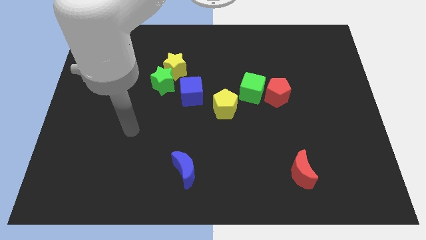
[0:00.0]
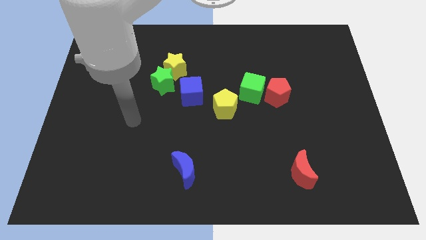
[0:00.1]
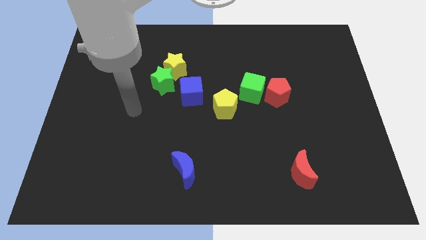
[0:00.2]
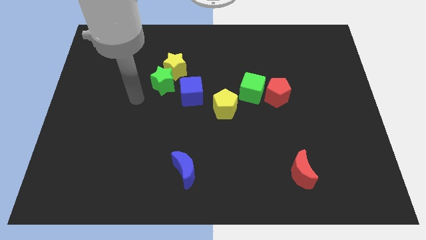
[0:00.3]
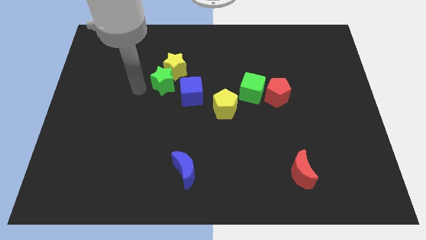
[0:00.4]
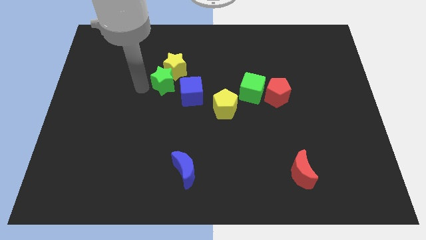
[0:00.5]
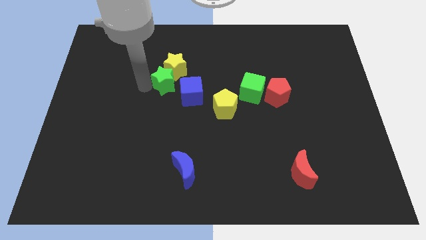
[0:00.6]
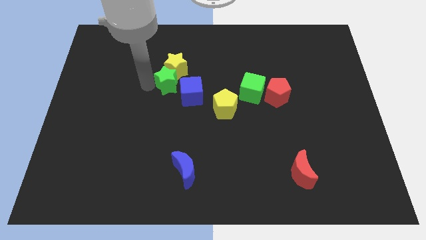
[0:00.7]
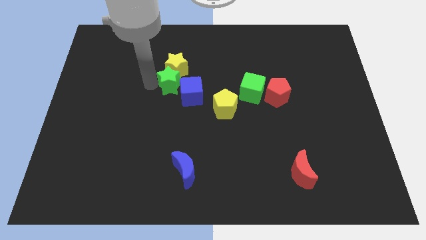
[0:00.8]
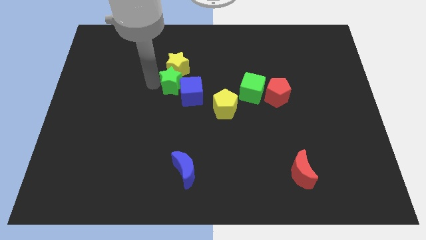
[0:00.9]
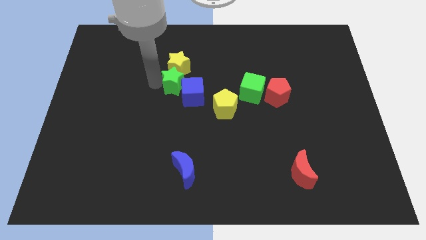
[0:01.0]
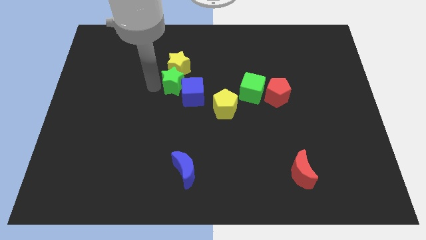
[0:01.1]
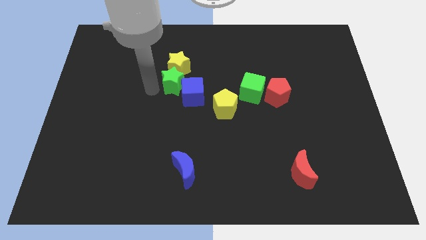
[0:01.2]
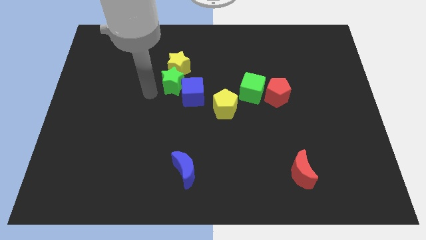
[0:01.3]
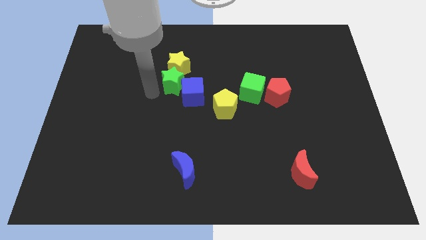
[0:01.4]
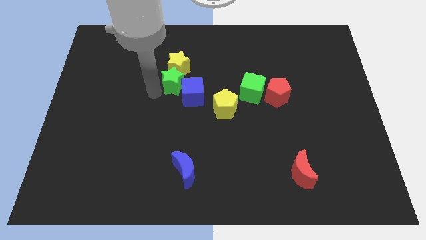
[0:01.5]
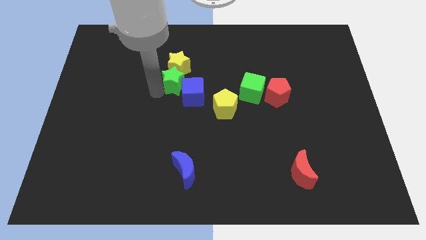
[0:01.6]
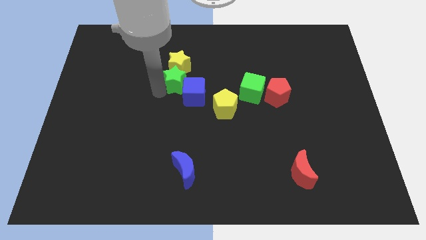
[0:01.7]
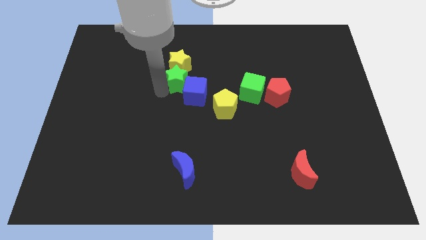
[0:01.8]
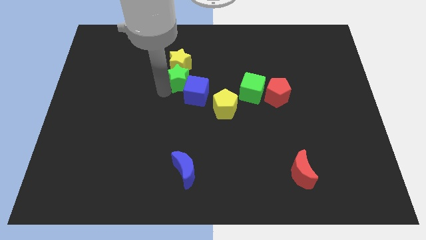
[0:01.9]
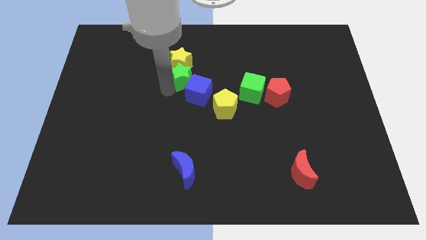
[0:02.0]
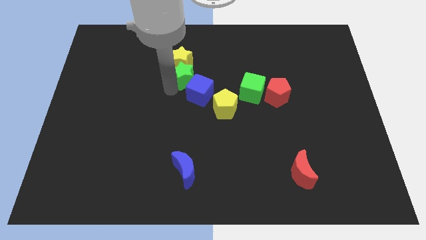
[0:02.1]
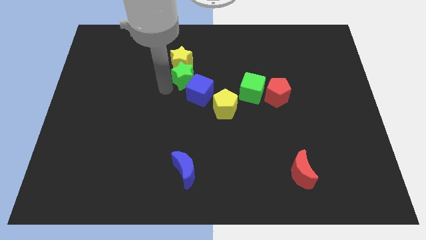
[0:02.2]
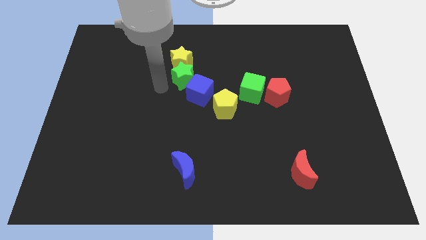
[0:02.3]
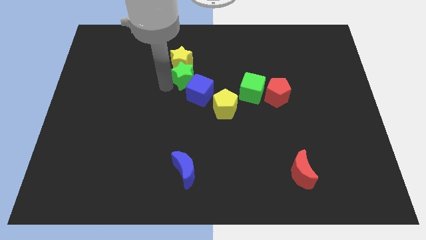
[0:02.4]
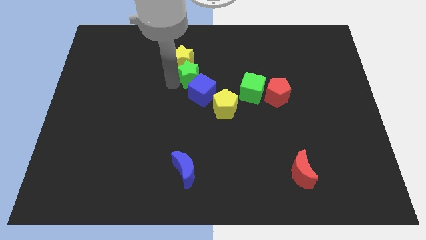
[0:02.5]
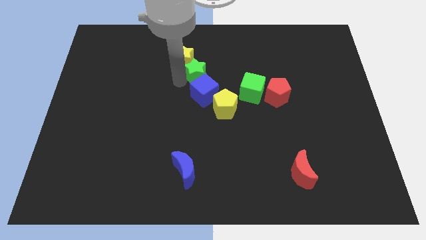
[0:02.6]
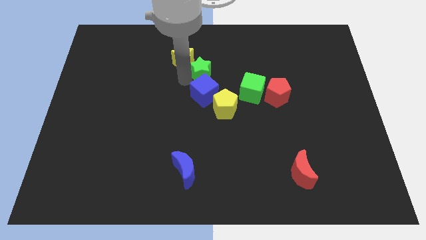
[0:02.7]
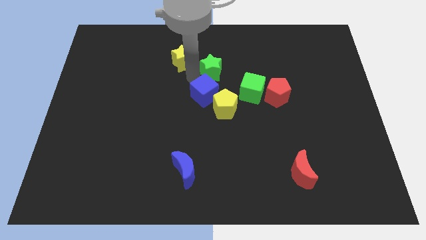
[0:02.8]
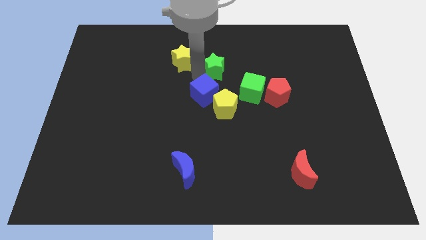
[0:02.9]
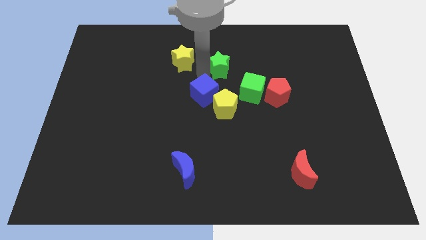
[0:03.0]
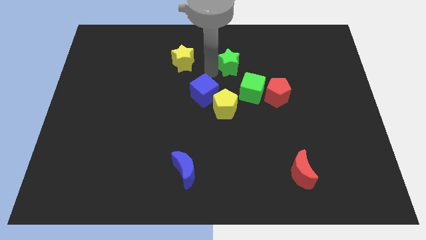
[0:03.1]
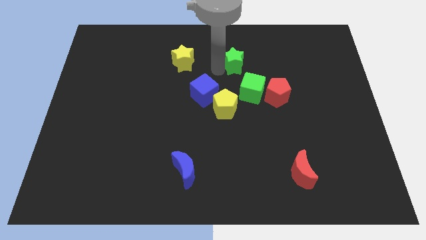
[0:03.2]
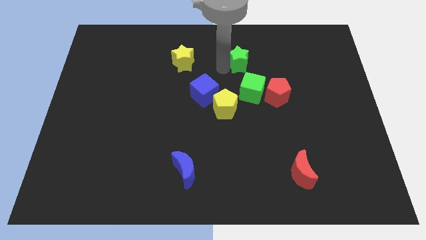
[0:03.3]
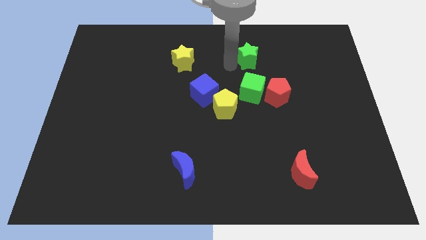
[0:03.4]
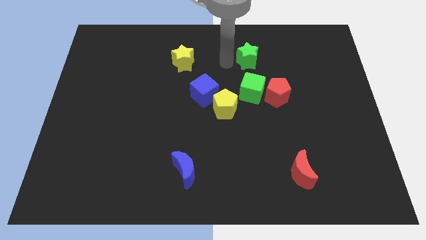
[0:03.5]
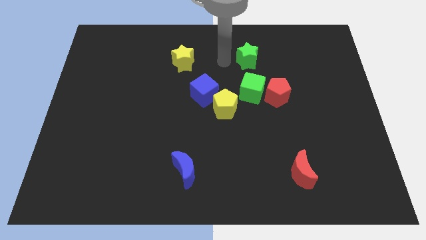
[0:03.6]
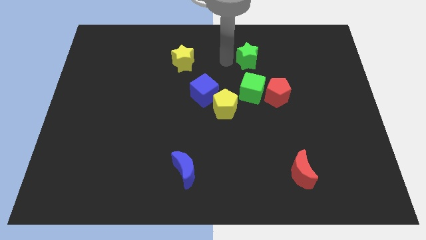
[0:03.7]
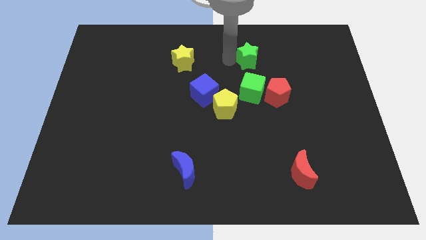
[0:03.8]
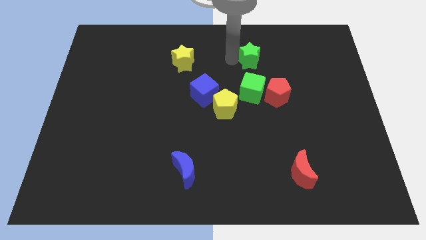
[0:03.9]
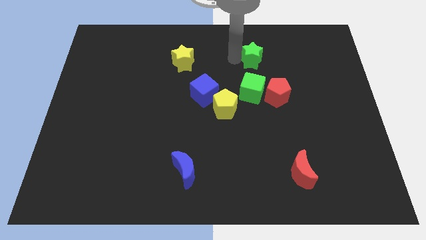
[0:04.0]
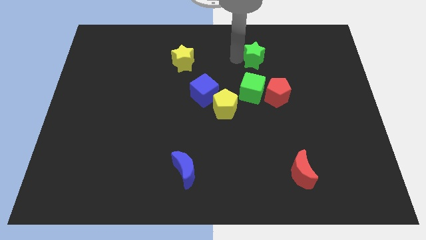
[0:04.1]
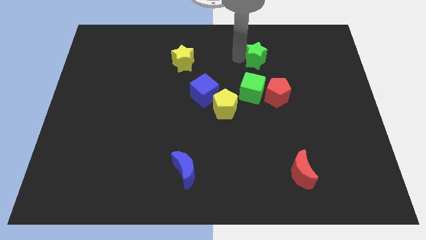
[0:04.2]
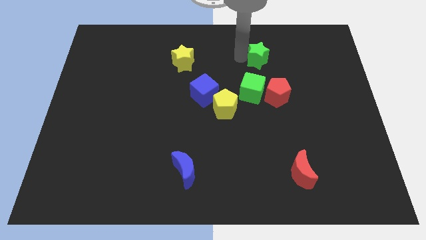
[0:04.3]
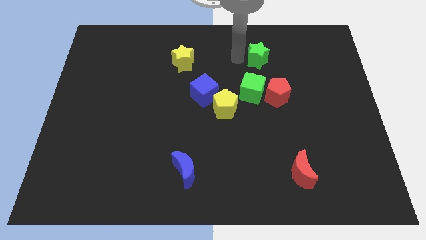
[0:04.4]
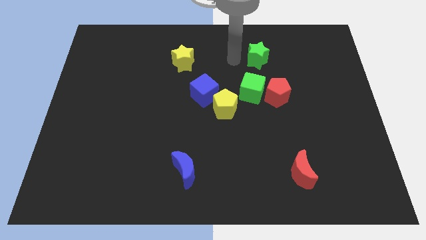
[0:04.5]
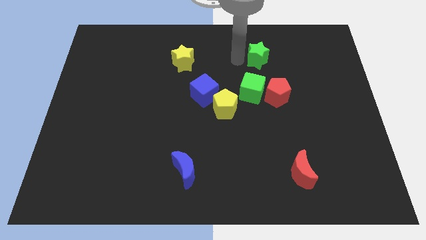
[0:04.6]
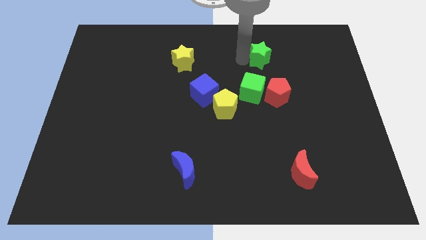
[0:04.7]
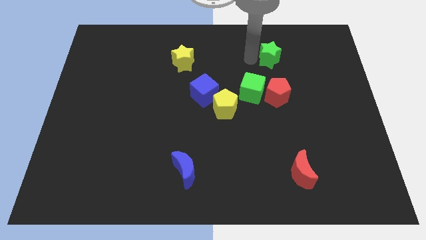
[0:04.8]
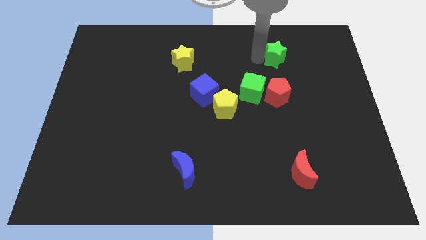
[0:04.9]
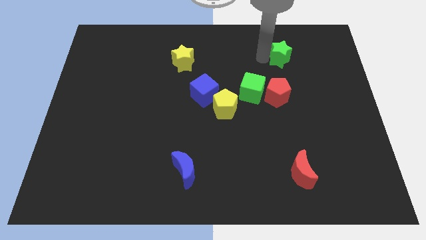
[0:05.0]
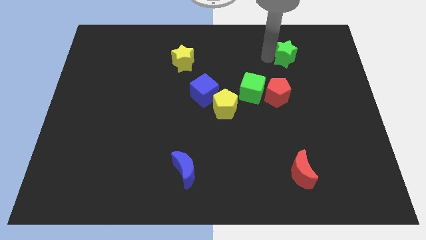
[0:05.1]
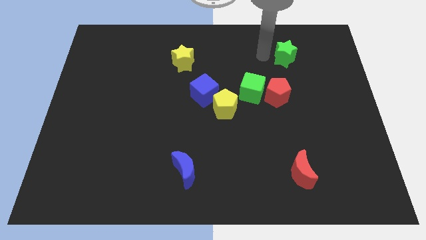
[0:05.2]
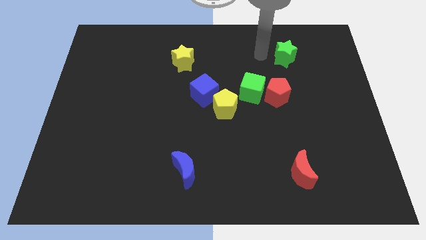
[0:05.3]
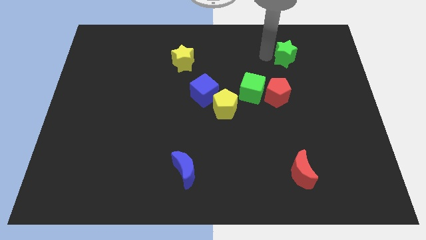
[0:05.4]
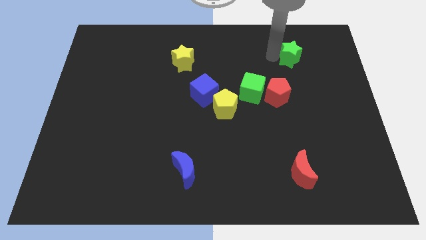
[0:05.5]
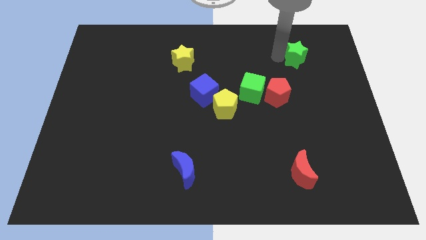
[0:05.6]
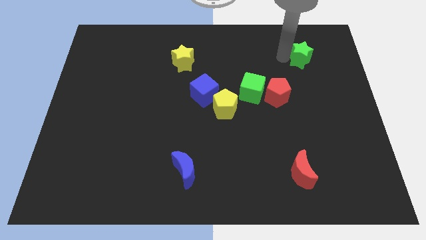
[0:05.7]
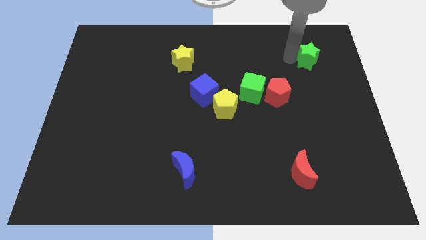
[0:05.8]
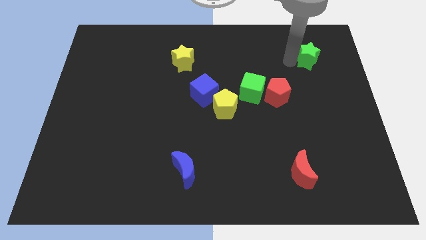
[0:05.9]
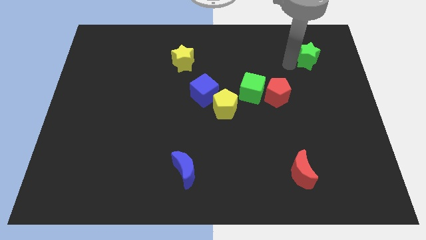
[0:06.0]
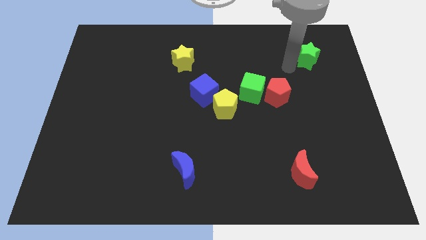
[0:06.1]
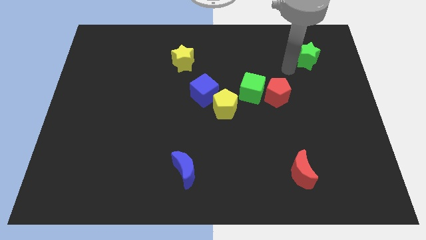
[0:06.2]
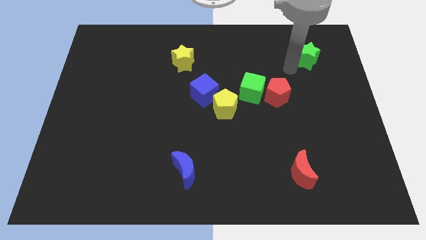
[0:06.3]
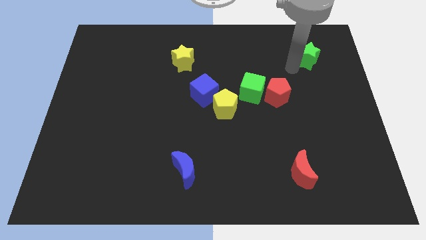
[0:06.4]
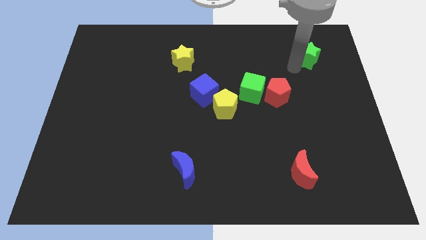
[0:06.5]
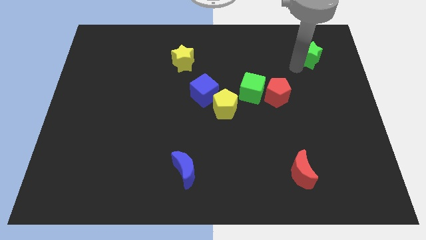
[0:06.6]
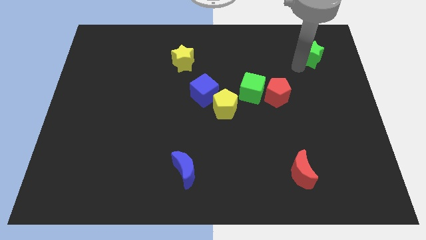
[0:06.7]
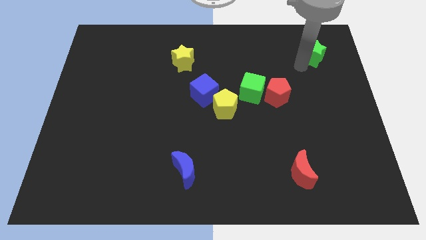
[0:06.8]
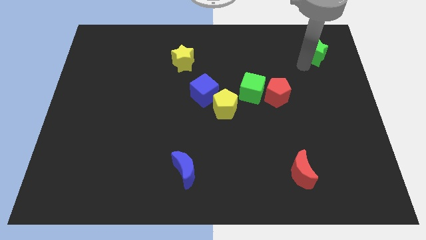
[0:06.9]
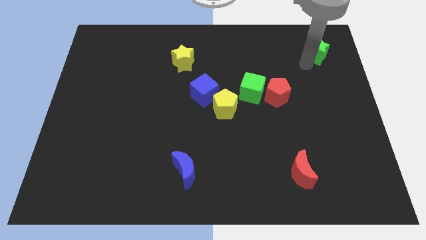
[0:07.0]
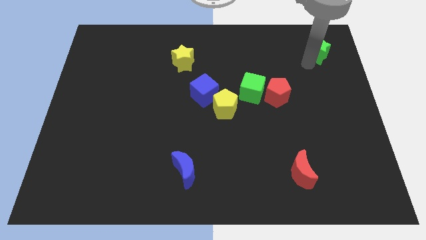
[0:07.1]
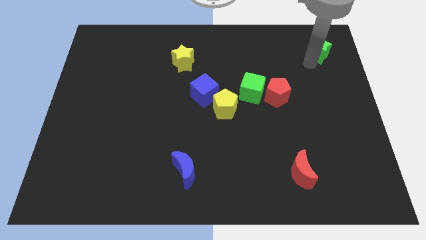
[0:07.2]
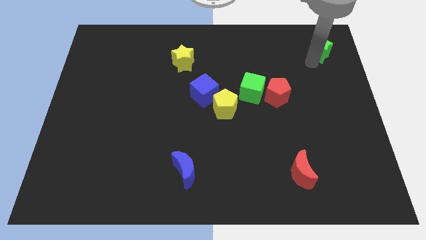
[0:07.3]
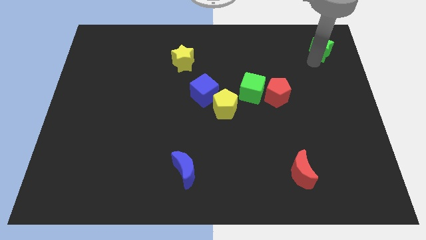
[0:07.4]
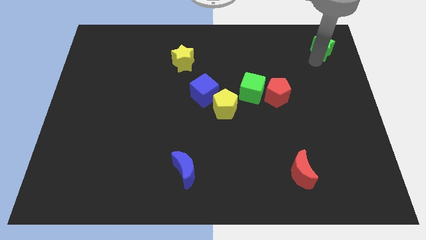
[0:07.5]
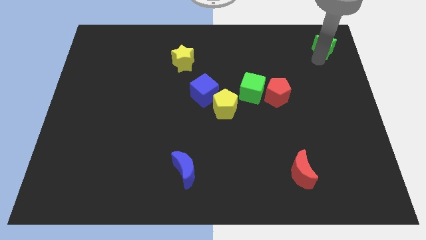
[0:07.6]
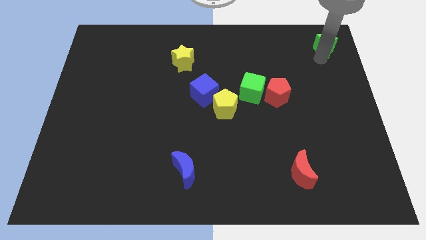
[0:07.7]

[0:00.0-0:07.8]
move the green star to the top right of the board
